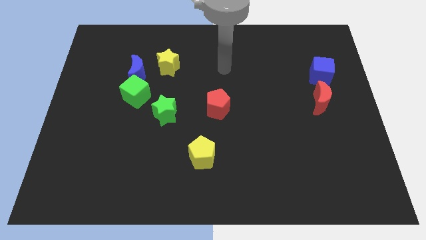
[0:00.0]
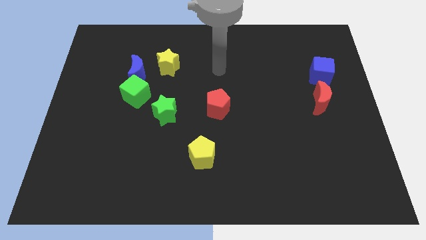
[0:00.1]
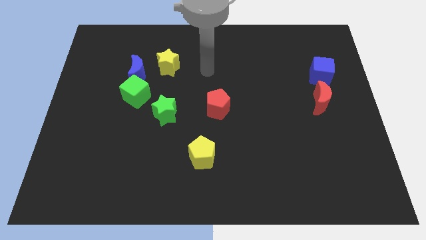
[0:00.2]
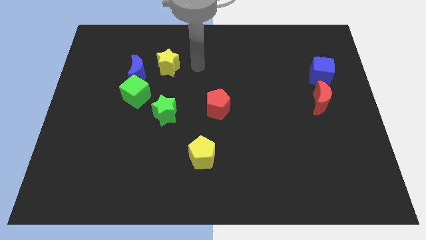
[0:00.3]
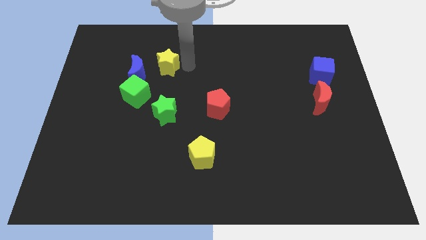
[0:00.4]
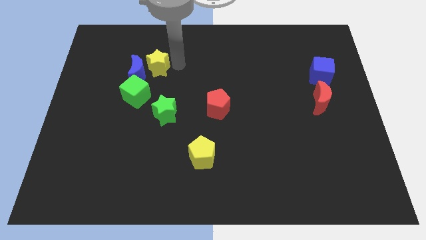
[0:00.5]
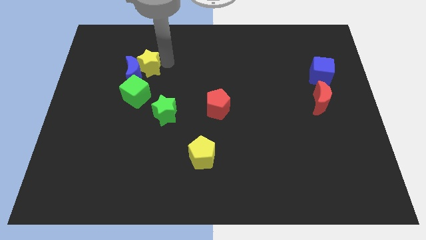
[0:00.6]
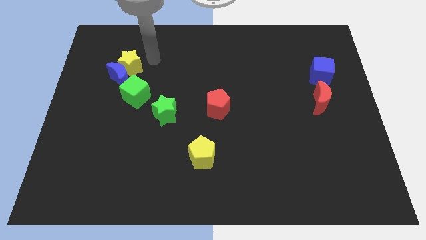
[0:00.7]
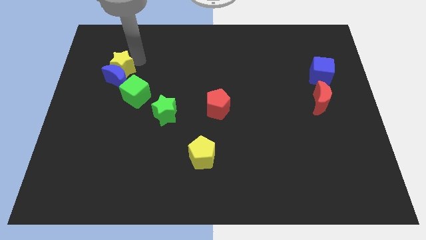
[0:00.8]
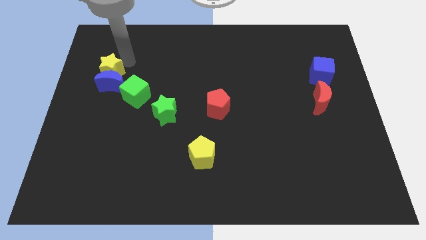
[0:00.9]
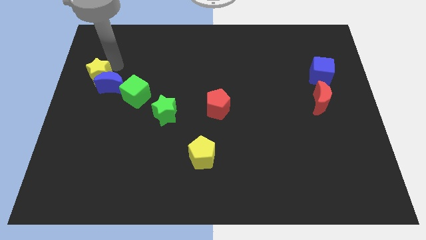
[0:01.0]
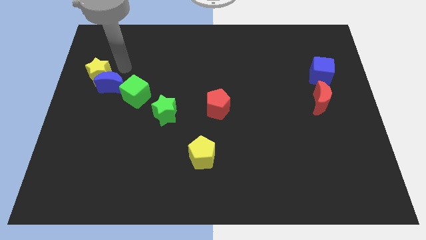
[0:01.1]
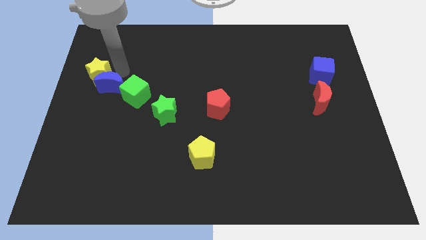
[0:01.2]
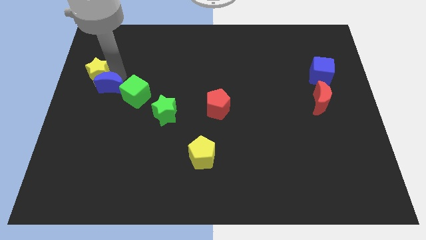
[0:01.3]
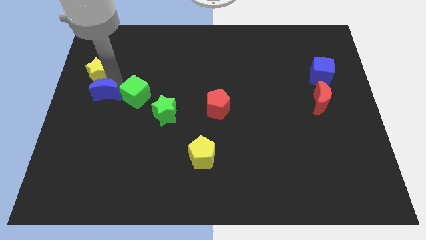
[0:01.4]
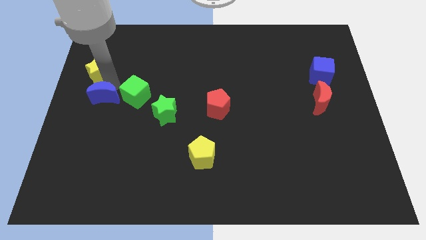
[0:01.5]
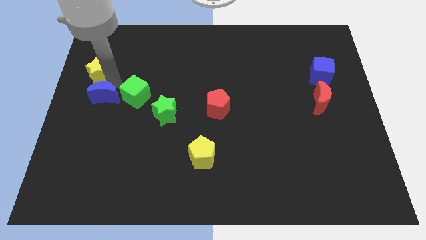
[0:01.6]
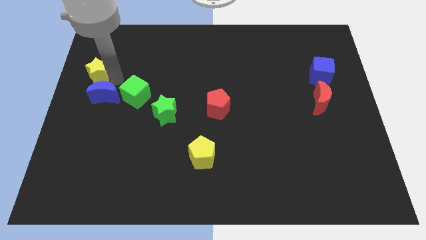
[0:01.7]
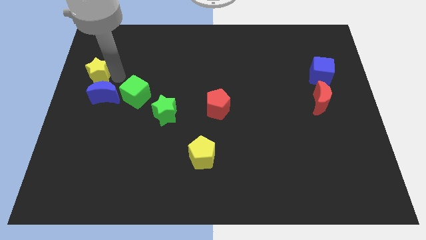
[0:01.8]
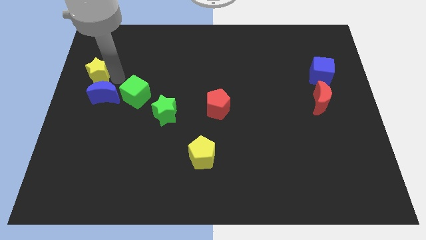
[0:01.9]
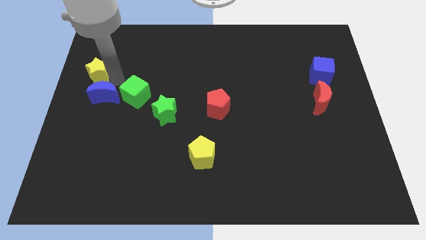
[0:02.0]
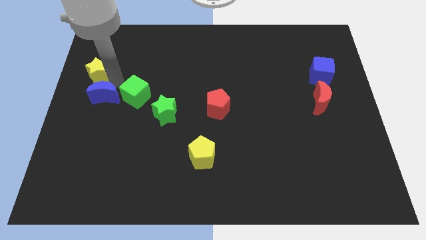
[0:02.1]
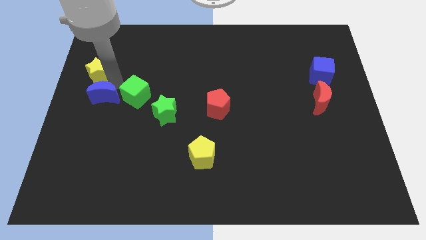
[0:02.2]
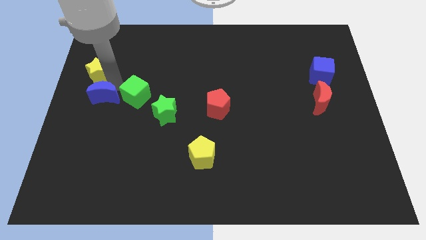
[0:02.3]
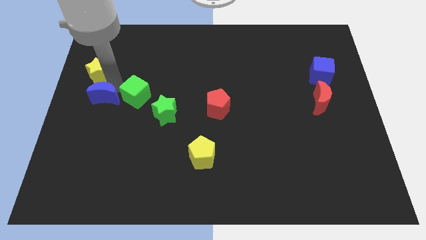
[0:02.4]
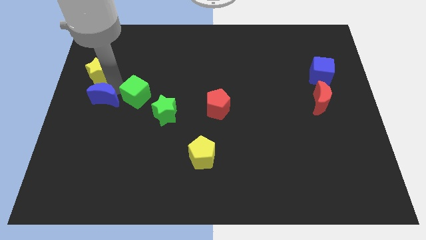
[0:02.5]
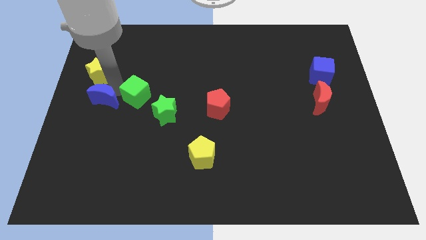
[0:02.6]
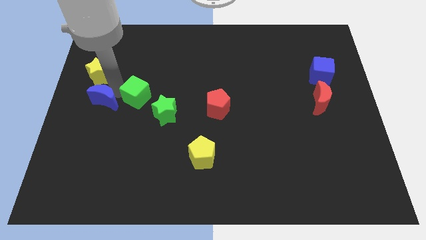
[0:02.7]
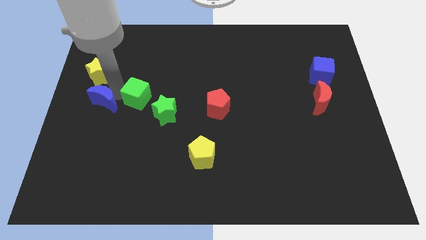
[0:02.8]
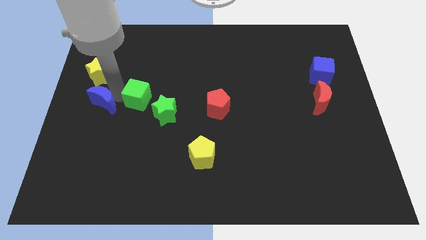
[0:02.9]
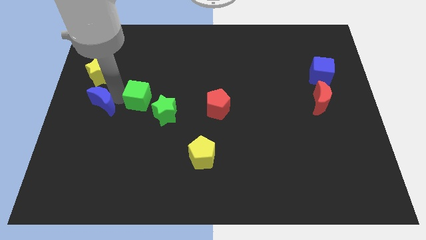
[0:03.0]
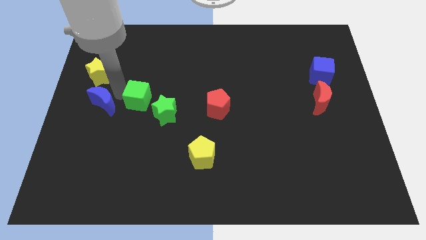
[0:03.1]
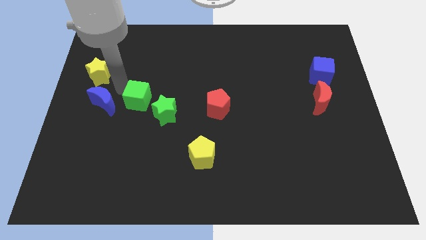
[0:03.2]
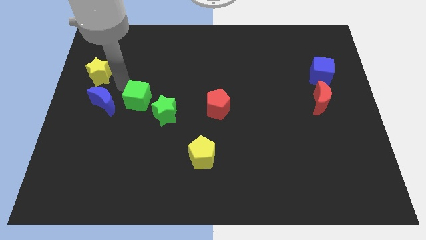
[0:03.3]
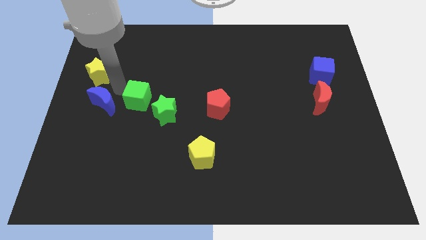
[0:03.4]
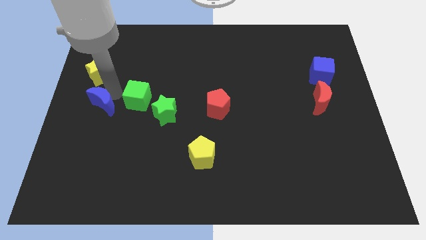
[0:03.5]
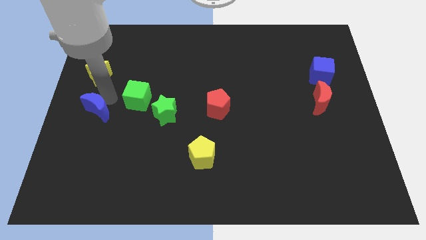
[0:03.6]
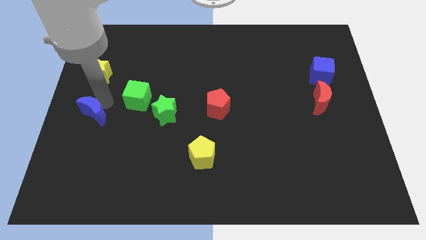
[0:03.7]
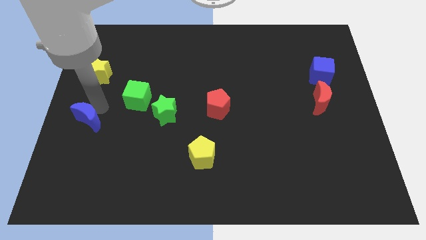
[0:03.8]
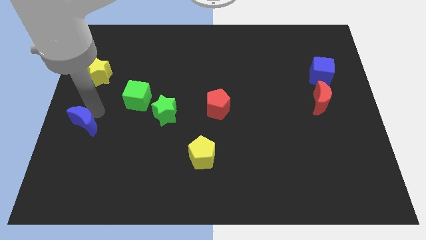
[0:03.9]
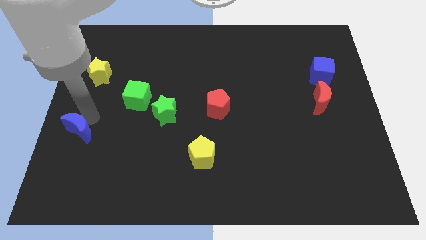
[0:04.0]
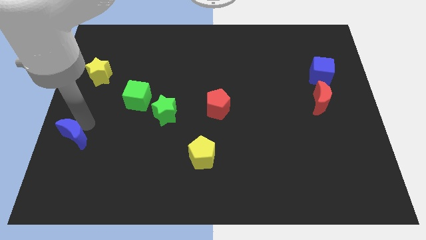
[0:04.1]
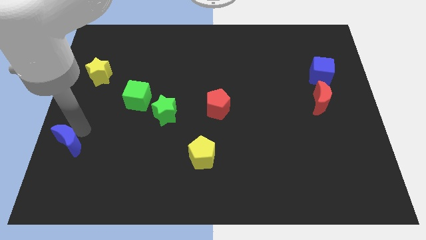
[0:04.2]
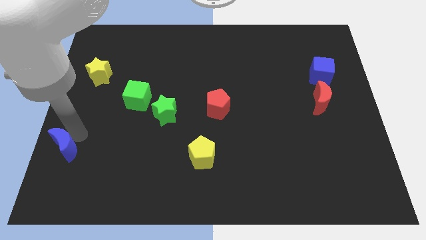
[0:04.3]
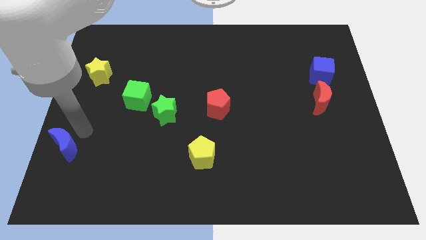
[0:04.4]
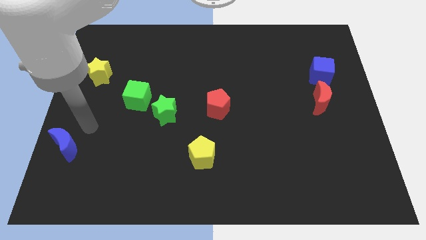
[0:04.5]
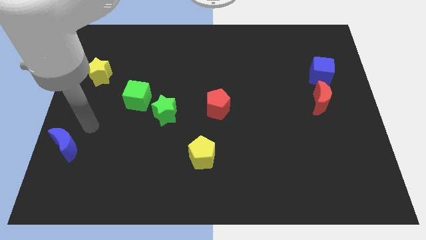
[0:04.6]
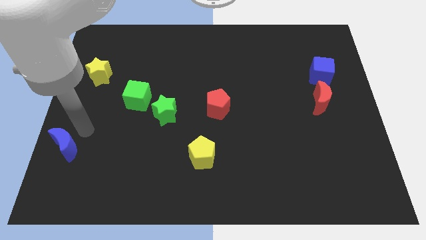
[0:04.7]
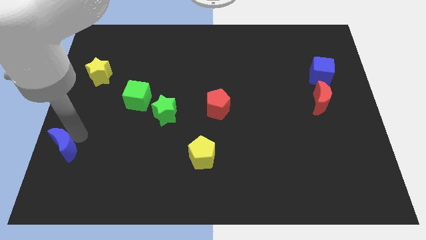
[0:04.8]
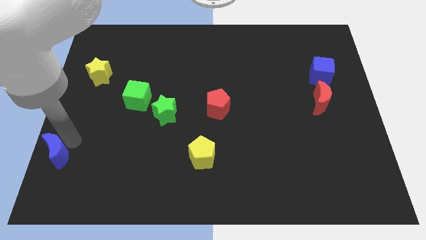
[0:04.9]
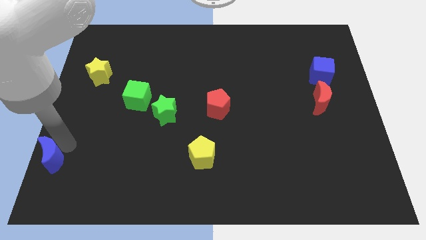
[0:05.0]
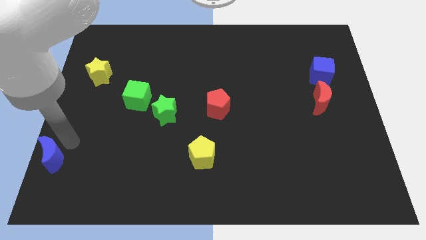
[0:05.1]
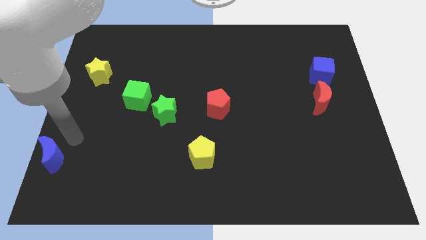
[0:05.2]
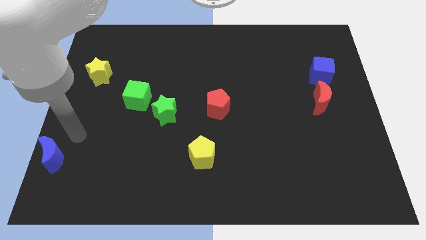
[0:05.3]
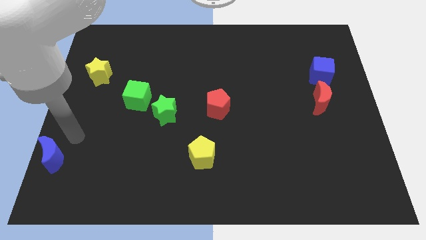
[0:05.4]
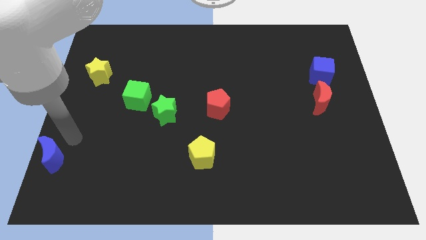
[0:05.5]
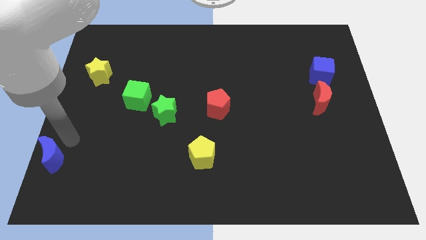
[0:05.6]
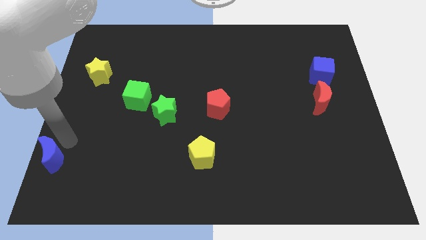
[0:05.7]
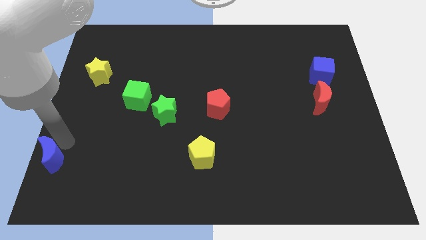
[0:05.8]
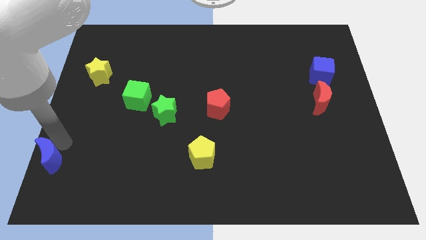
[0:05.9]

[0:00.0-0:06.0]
move the blue moon to the bottom left

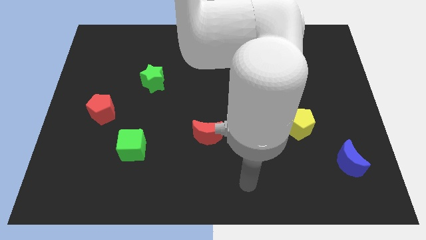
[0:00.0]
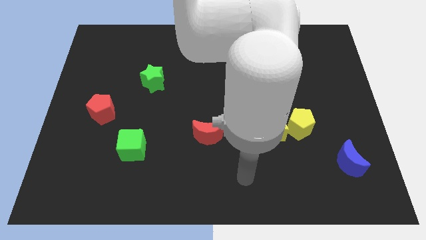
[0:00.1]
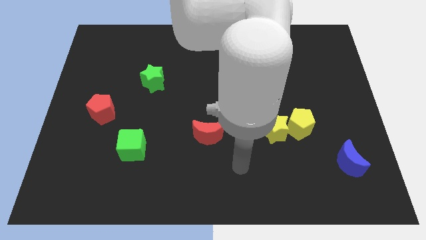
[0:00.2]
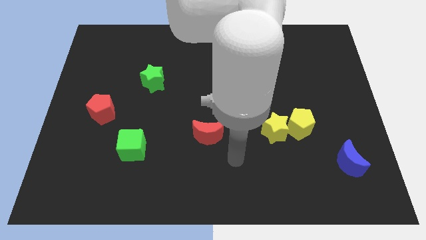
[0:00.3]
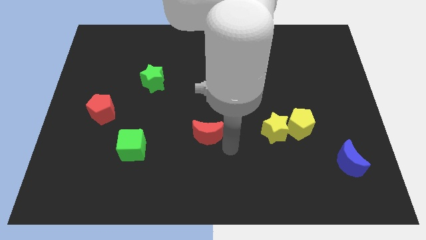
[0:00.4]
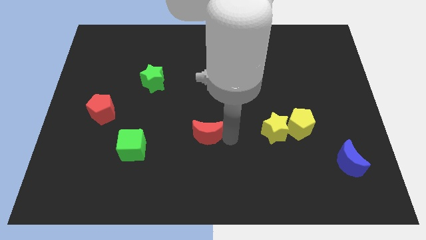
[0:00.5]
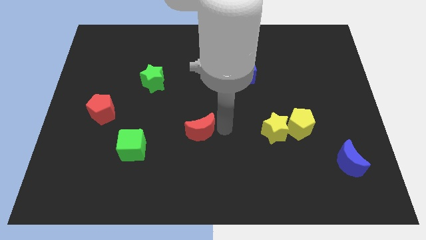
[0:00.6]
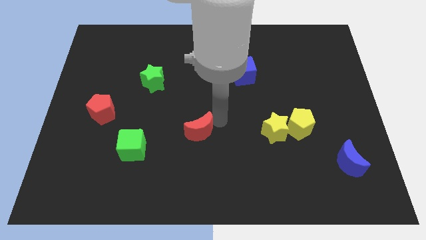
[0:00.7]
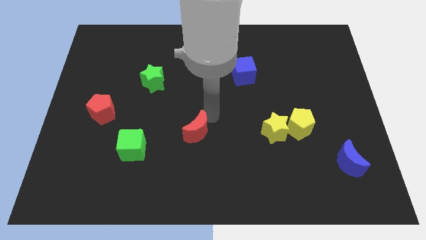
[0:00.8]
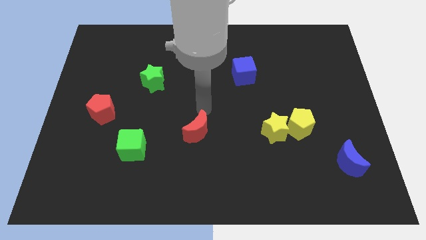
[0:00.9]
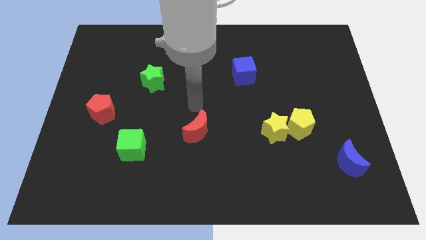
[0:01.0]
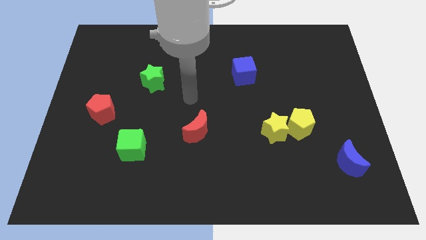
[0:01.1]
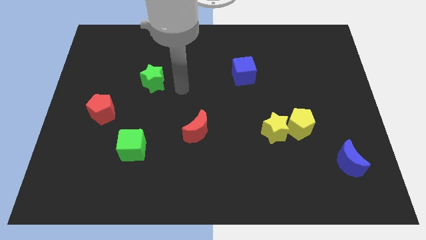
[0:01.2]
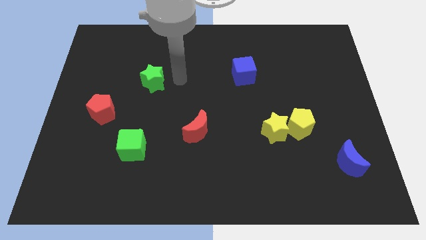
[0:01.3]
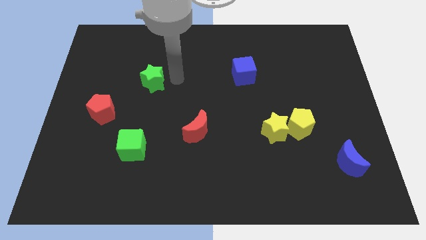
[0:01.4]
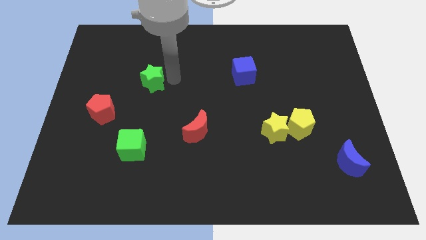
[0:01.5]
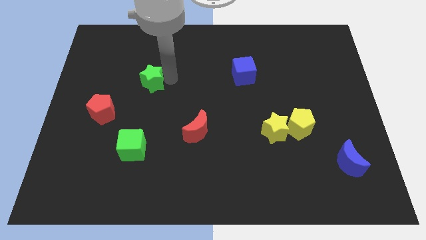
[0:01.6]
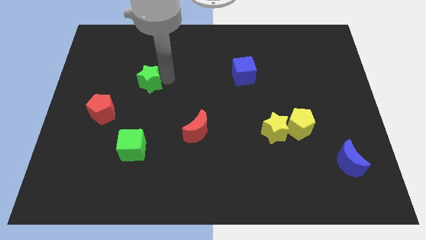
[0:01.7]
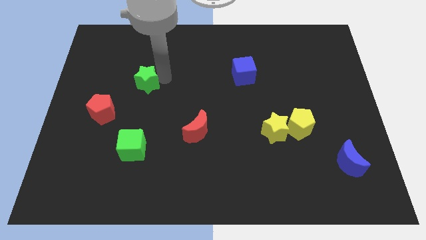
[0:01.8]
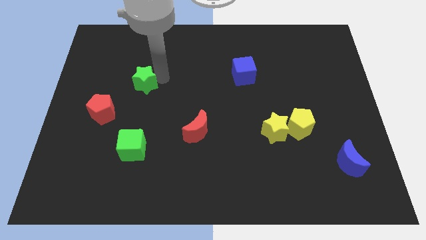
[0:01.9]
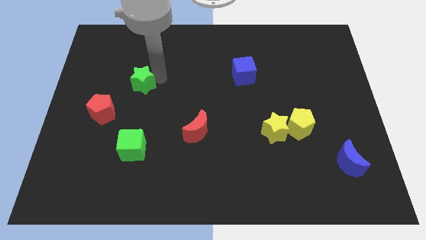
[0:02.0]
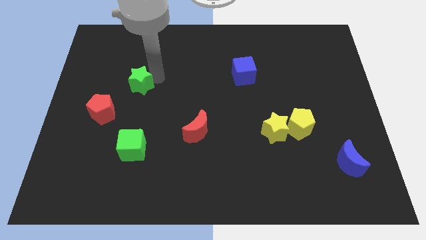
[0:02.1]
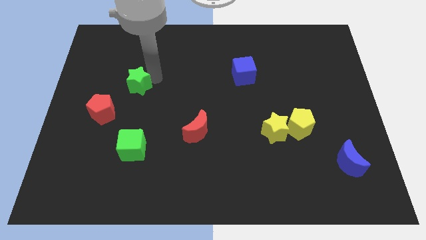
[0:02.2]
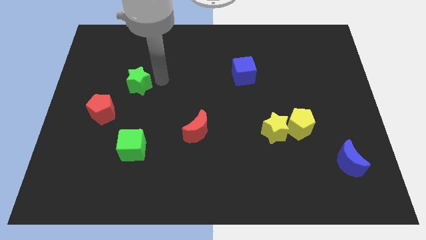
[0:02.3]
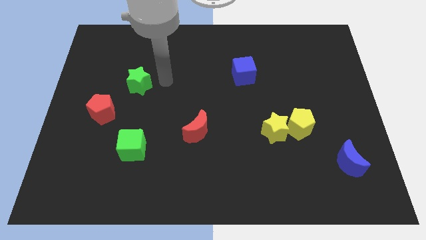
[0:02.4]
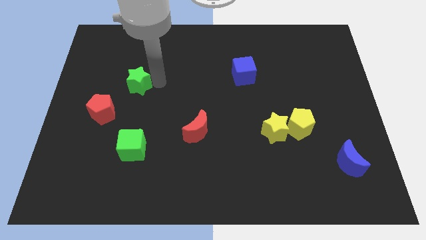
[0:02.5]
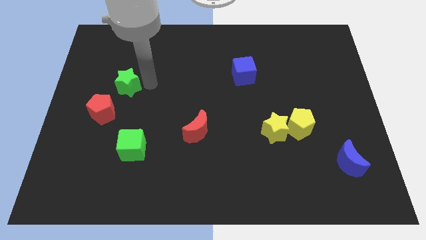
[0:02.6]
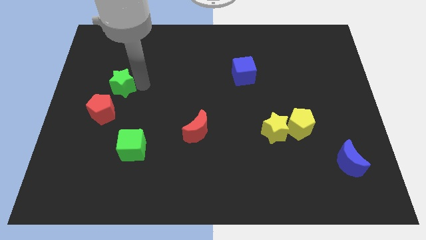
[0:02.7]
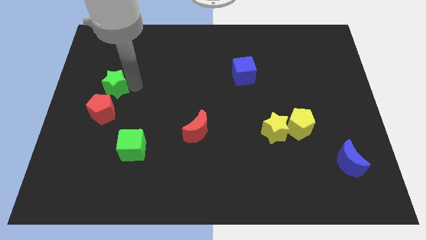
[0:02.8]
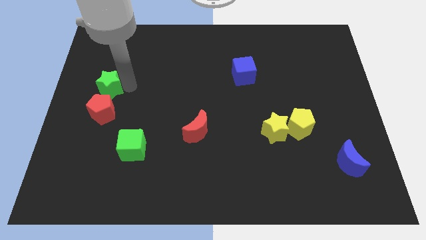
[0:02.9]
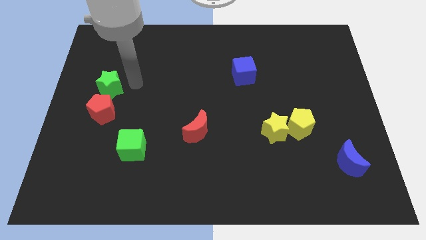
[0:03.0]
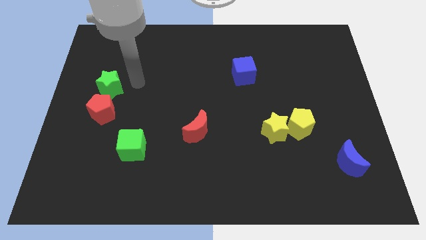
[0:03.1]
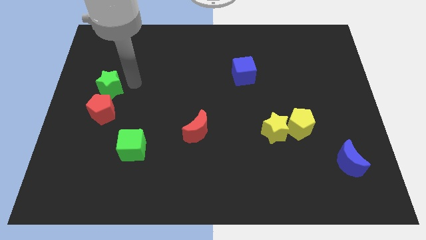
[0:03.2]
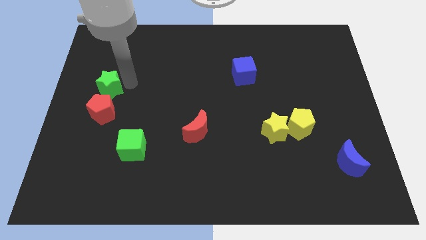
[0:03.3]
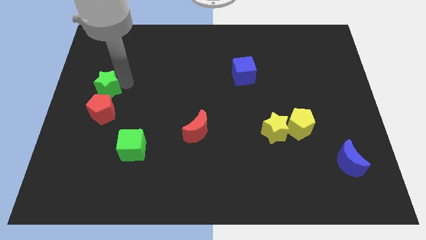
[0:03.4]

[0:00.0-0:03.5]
put the green star to the left side
